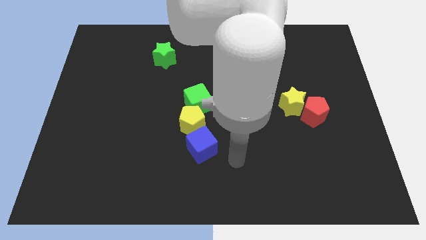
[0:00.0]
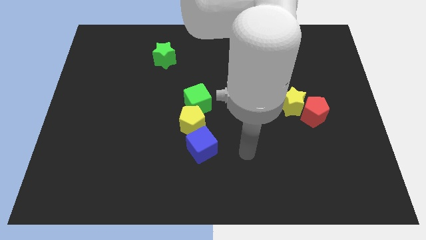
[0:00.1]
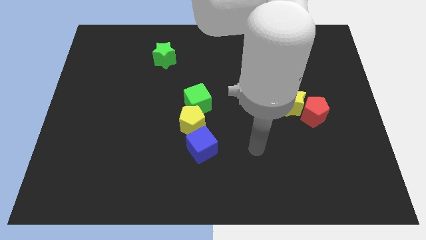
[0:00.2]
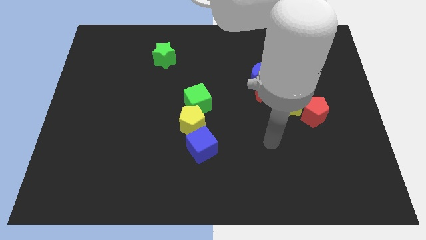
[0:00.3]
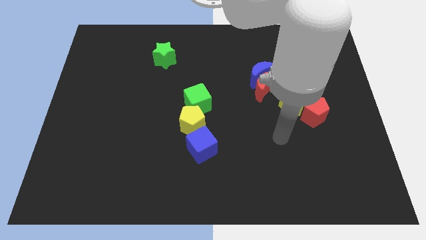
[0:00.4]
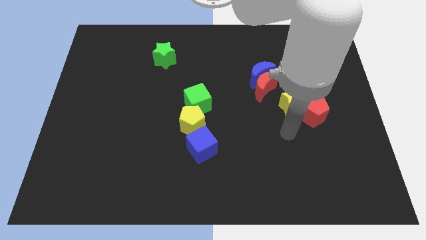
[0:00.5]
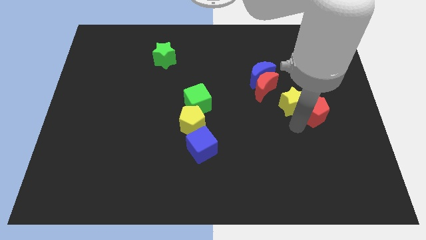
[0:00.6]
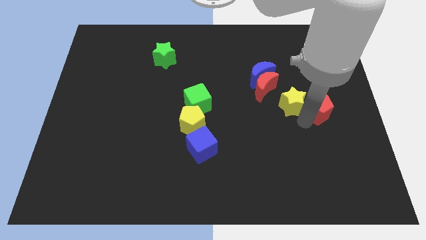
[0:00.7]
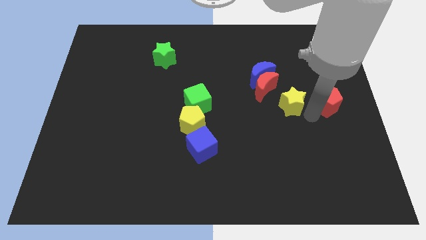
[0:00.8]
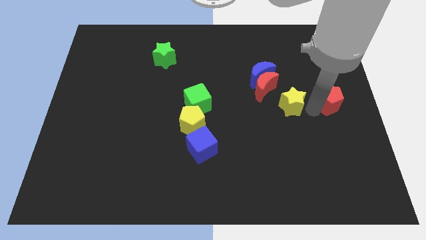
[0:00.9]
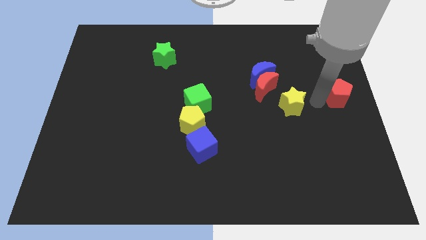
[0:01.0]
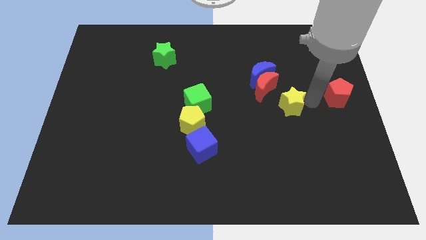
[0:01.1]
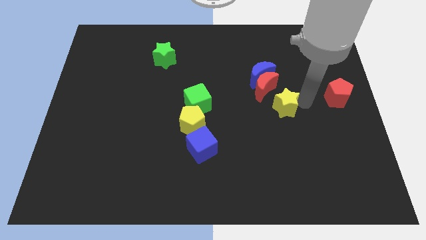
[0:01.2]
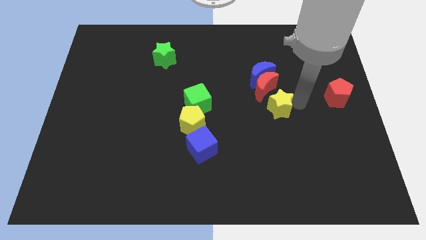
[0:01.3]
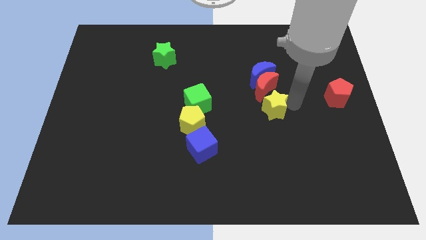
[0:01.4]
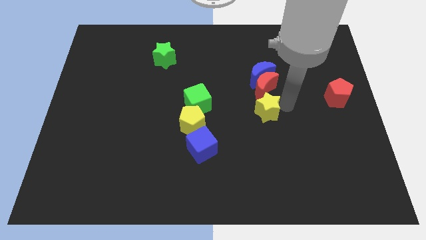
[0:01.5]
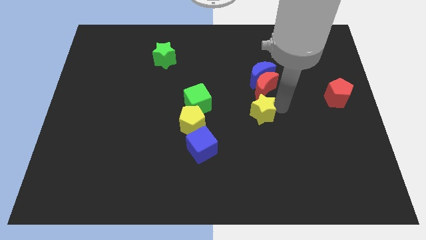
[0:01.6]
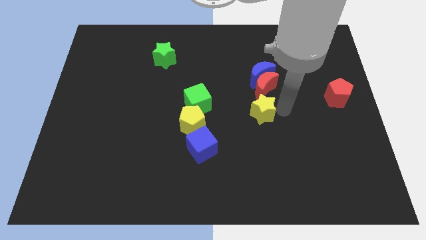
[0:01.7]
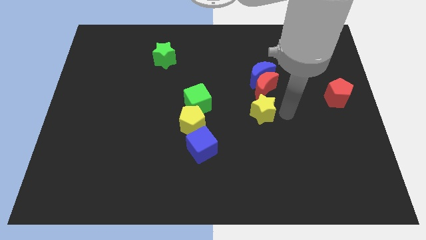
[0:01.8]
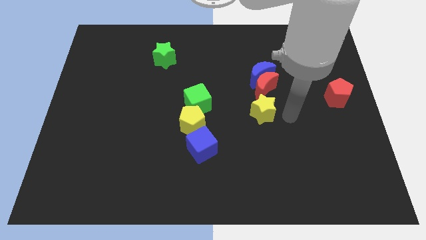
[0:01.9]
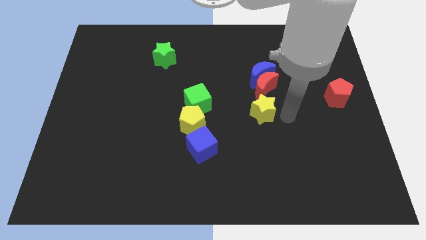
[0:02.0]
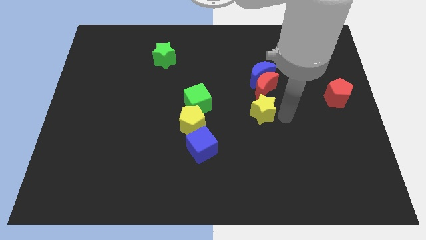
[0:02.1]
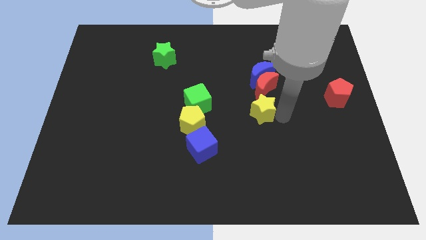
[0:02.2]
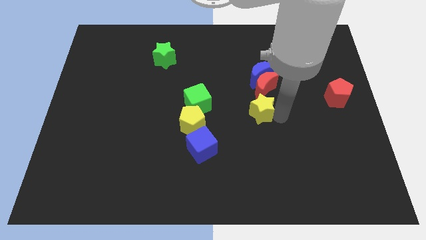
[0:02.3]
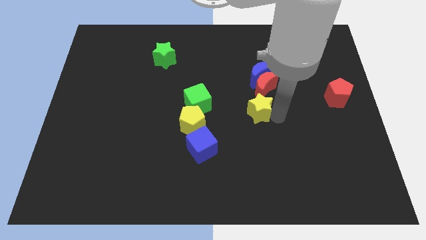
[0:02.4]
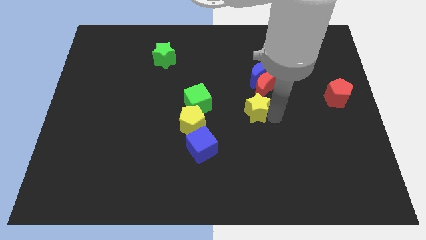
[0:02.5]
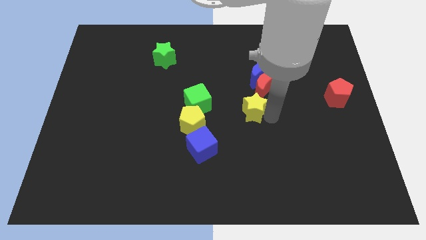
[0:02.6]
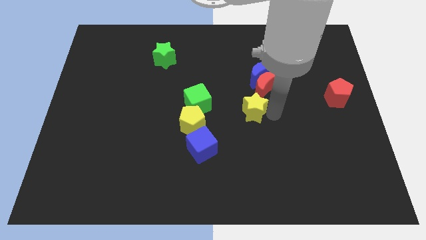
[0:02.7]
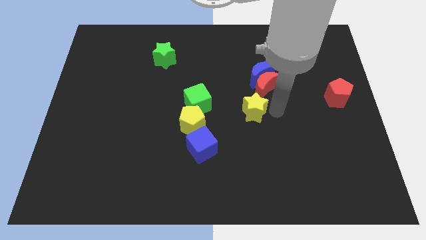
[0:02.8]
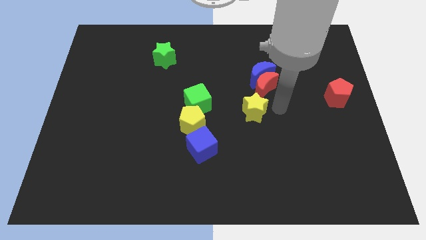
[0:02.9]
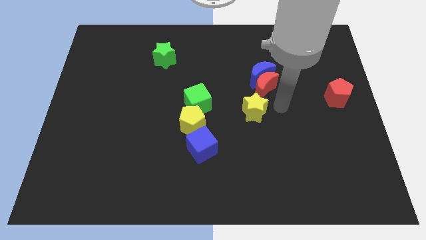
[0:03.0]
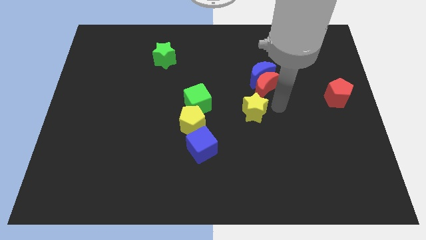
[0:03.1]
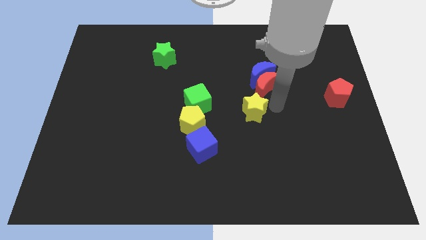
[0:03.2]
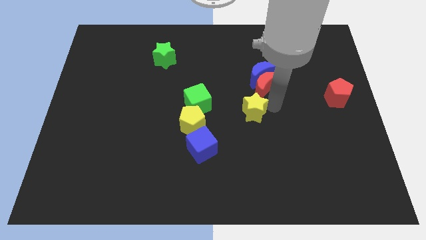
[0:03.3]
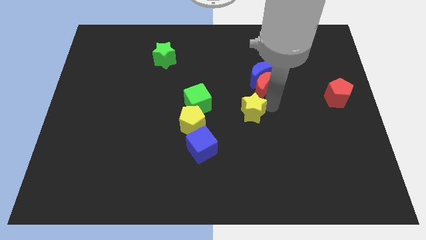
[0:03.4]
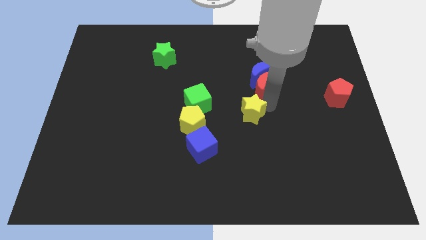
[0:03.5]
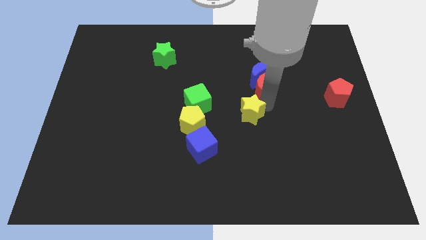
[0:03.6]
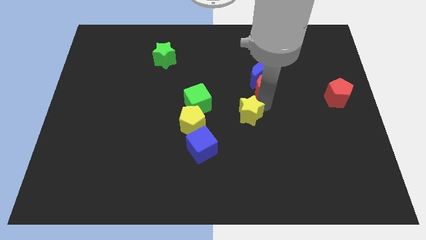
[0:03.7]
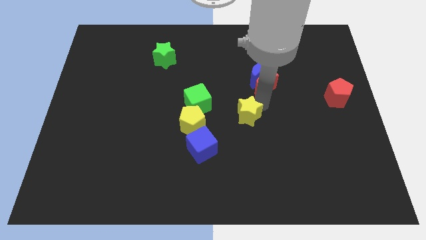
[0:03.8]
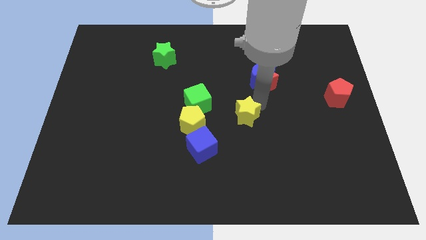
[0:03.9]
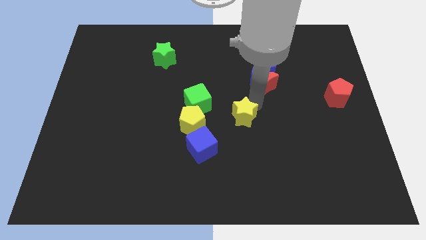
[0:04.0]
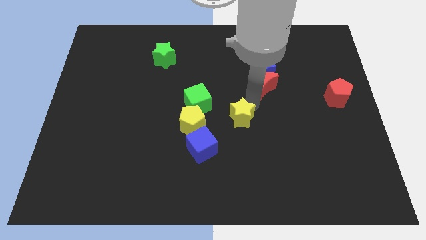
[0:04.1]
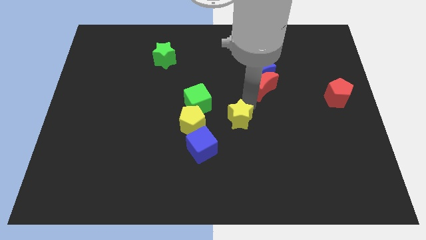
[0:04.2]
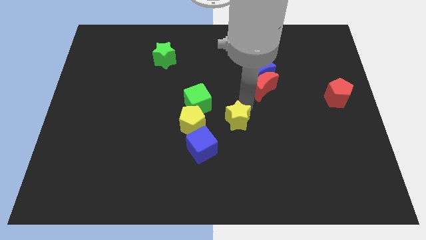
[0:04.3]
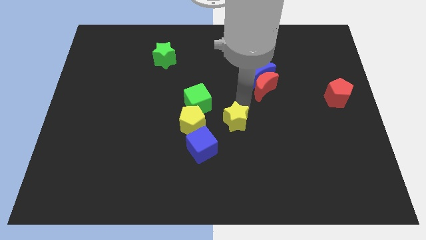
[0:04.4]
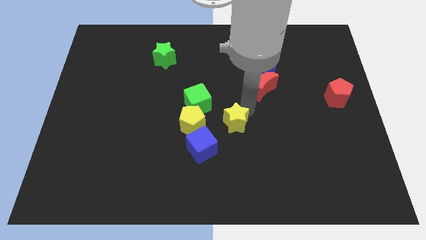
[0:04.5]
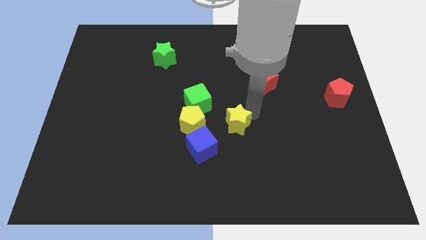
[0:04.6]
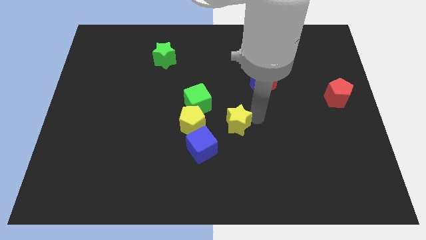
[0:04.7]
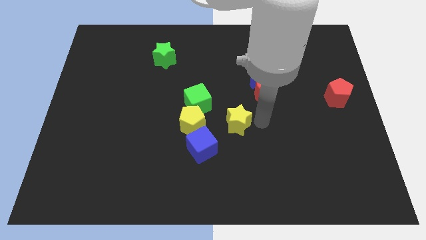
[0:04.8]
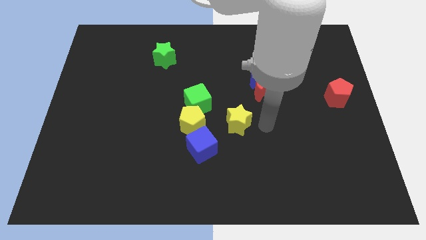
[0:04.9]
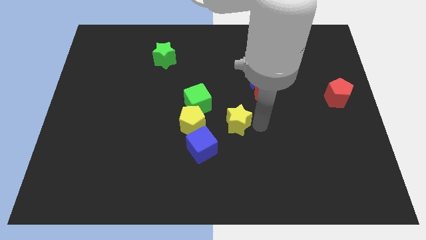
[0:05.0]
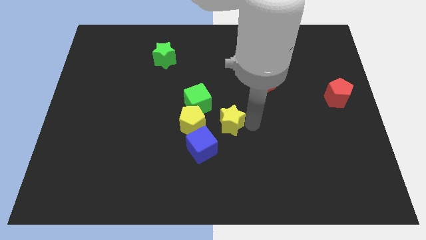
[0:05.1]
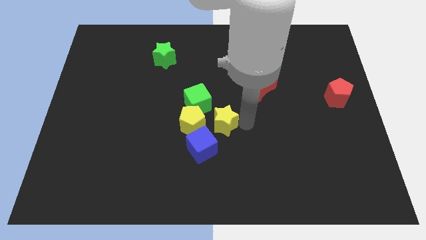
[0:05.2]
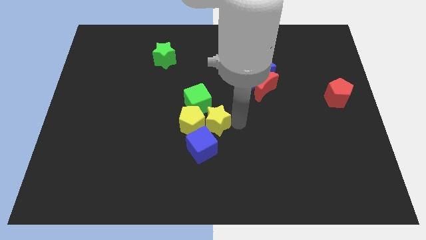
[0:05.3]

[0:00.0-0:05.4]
push the yellow star towards the yellow pentagon

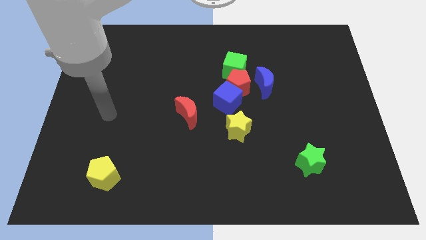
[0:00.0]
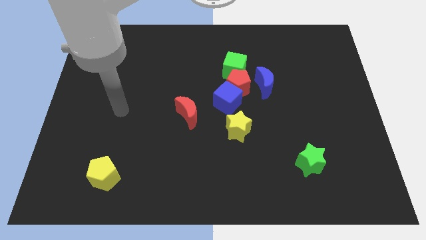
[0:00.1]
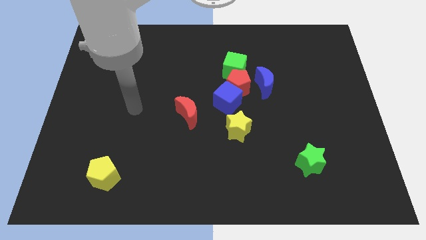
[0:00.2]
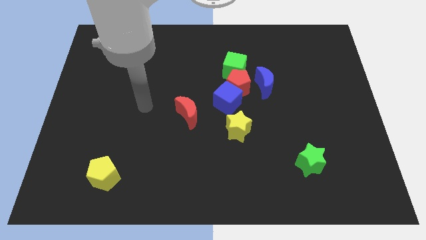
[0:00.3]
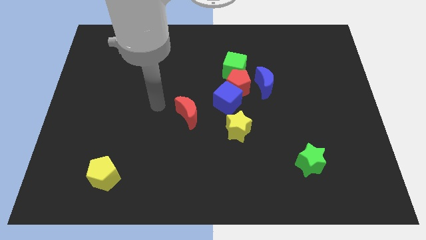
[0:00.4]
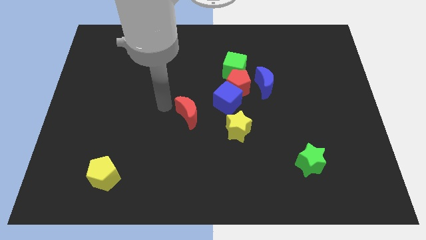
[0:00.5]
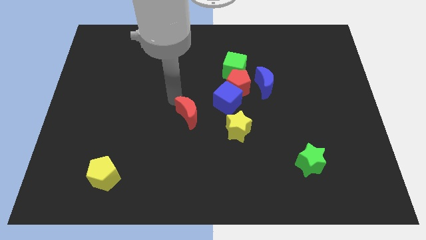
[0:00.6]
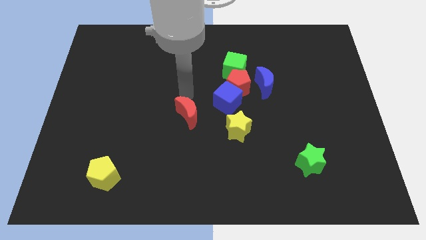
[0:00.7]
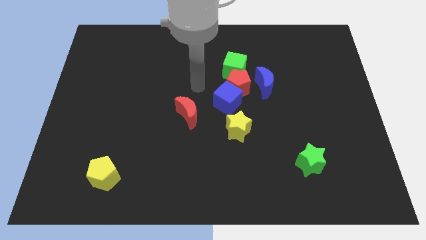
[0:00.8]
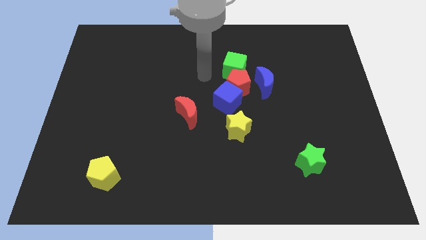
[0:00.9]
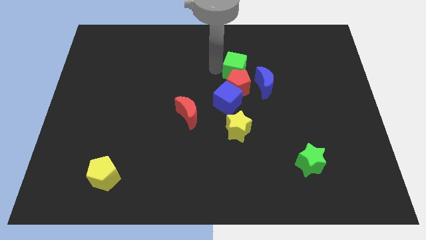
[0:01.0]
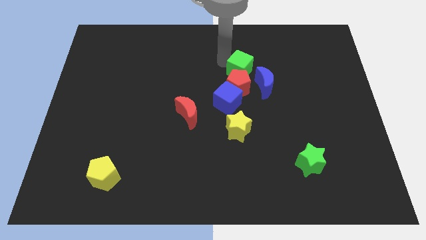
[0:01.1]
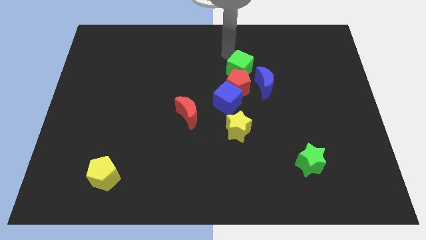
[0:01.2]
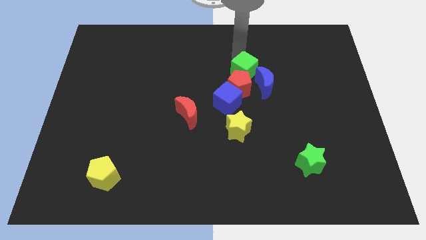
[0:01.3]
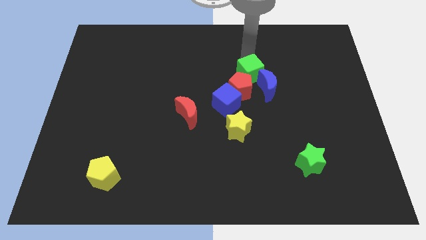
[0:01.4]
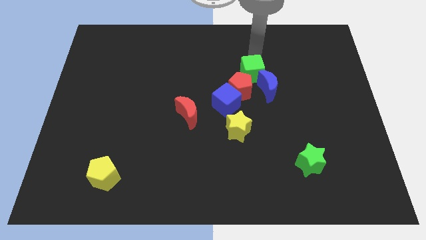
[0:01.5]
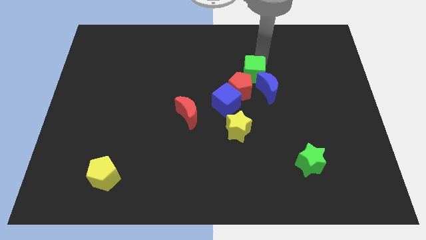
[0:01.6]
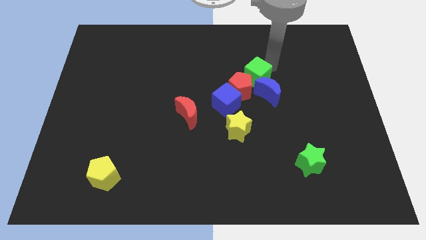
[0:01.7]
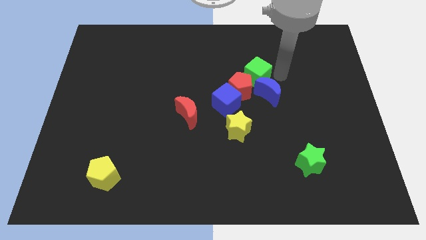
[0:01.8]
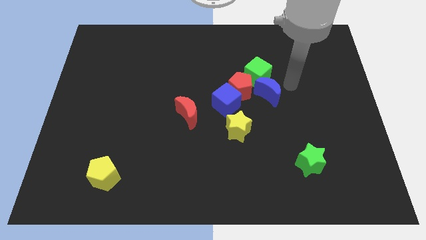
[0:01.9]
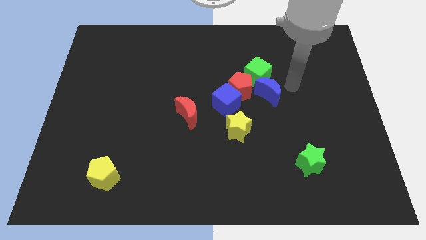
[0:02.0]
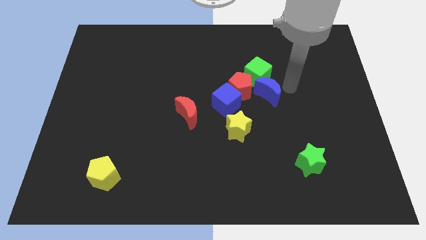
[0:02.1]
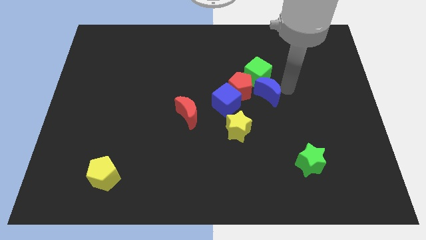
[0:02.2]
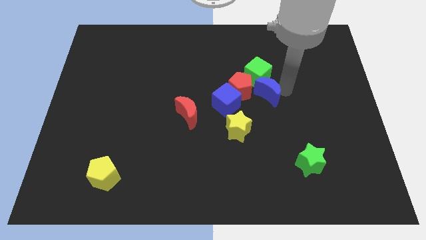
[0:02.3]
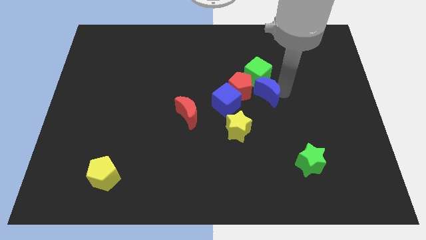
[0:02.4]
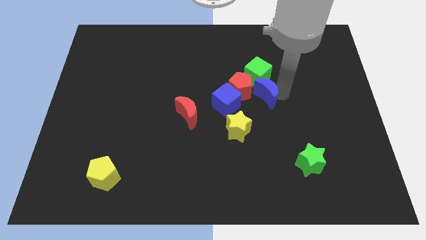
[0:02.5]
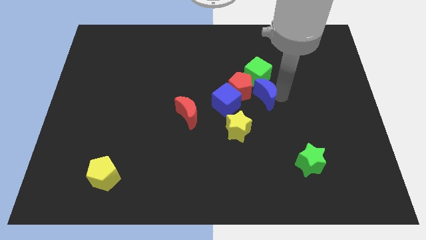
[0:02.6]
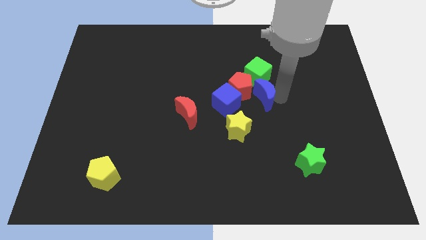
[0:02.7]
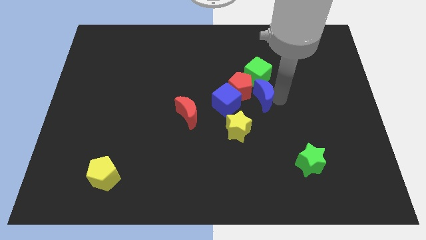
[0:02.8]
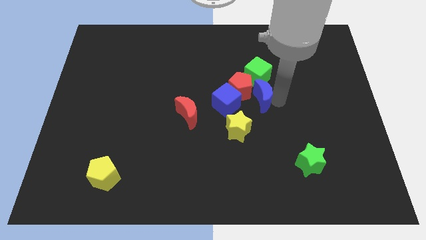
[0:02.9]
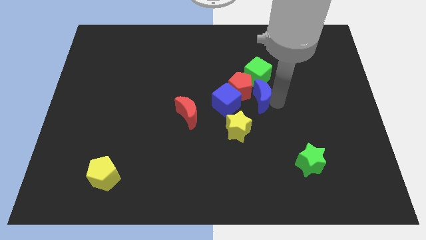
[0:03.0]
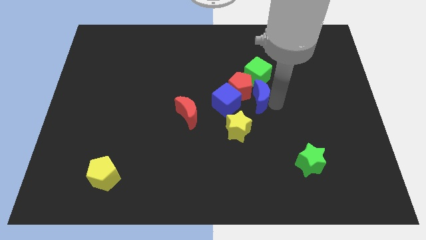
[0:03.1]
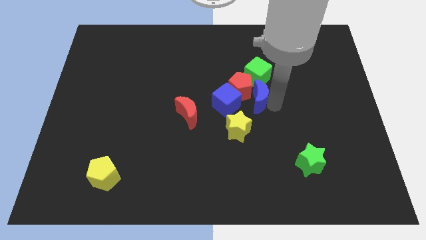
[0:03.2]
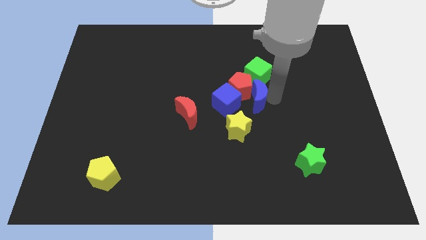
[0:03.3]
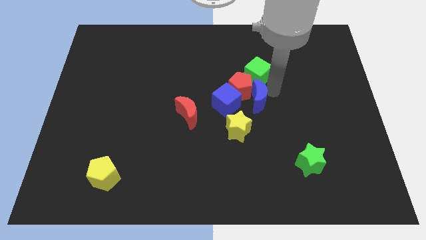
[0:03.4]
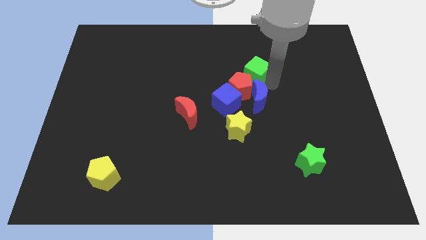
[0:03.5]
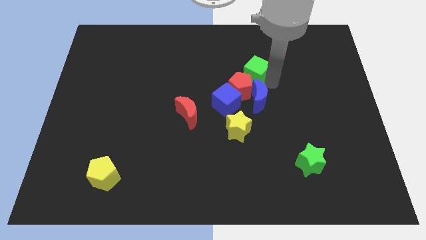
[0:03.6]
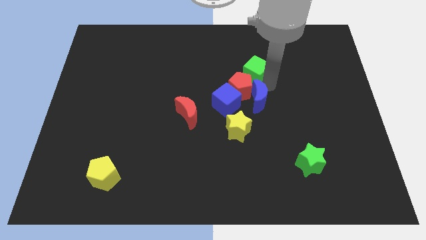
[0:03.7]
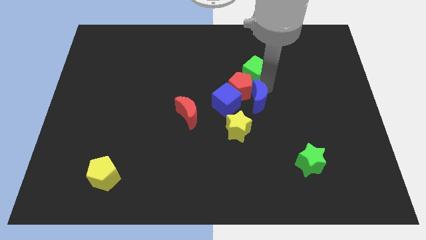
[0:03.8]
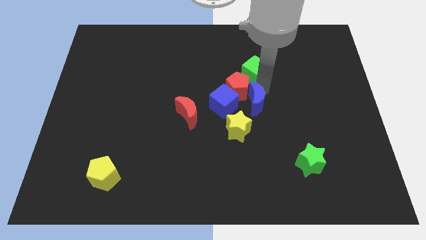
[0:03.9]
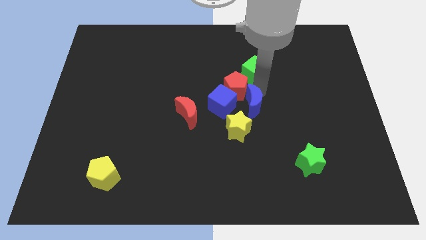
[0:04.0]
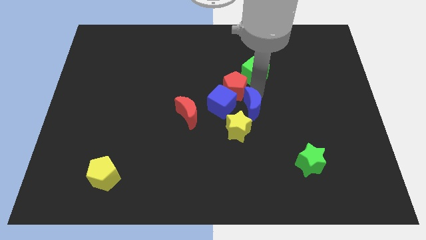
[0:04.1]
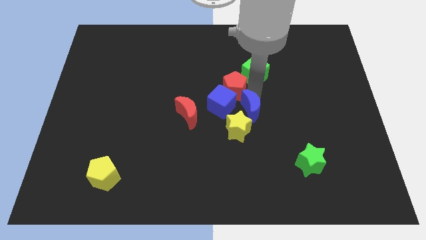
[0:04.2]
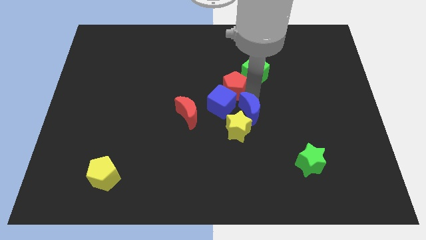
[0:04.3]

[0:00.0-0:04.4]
put the blue moon towards the yellow star
